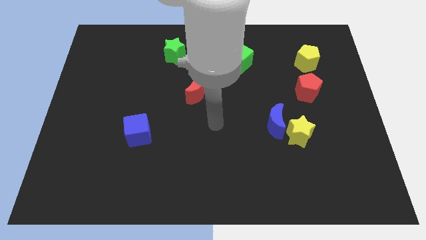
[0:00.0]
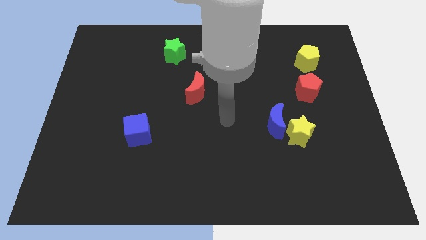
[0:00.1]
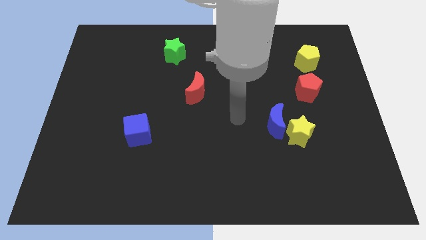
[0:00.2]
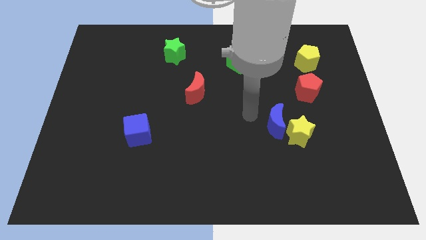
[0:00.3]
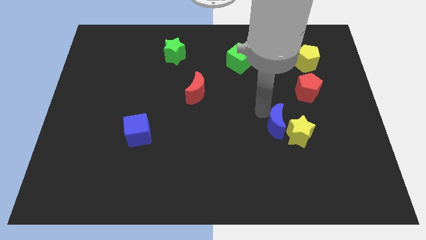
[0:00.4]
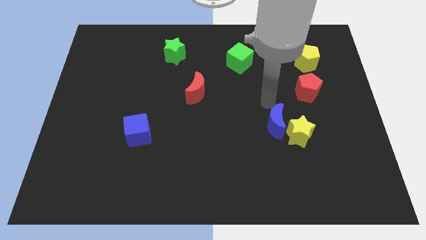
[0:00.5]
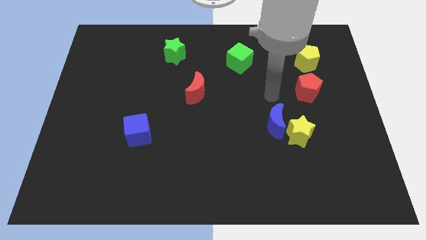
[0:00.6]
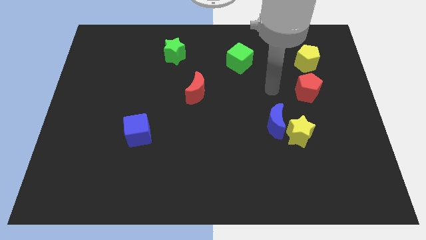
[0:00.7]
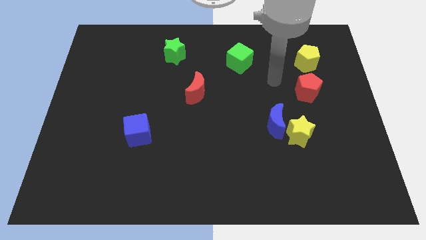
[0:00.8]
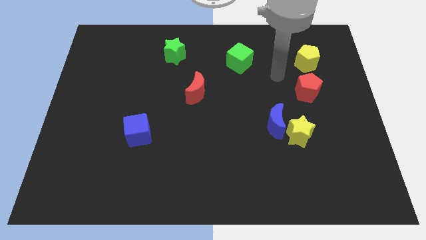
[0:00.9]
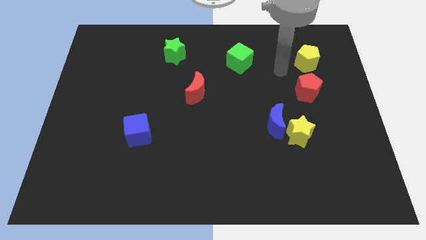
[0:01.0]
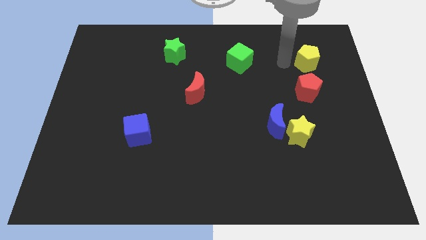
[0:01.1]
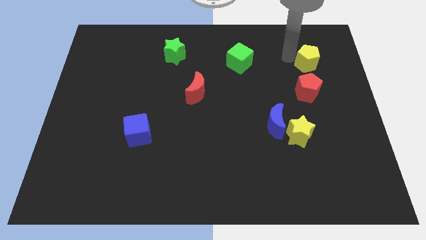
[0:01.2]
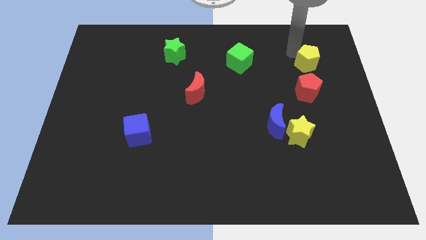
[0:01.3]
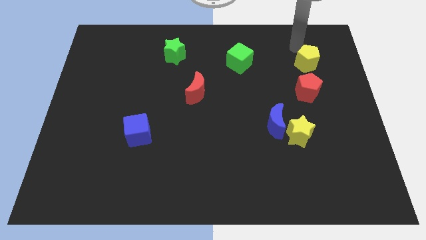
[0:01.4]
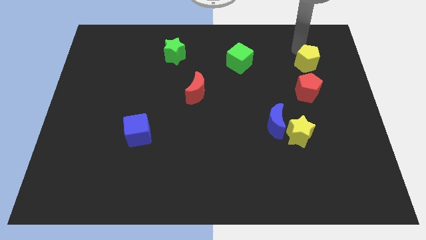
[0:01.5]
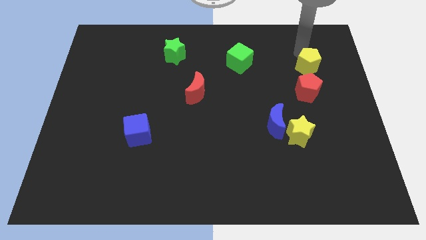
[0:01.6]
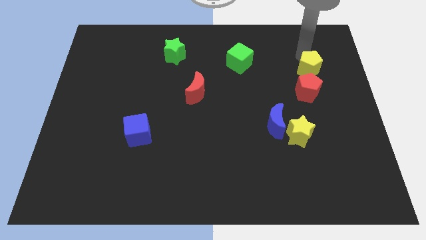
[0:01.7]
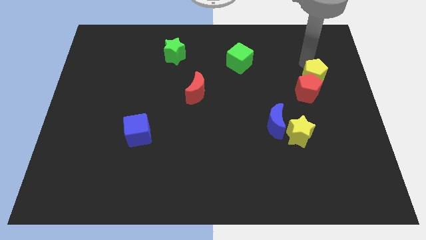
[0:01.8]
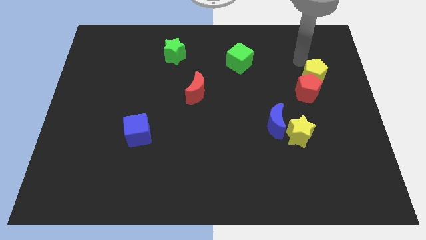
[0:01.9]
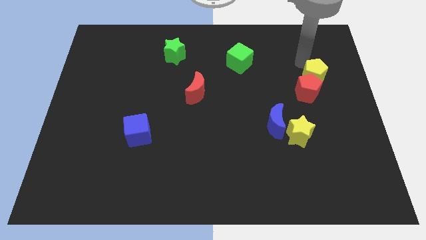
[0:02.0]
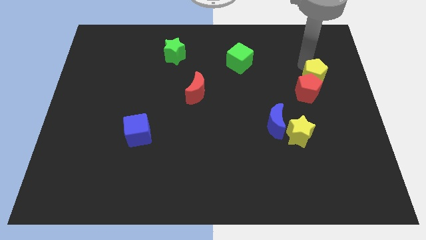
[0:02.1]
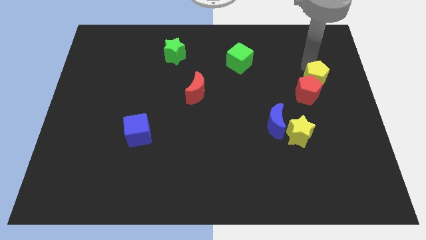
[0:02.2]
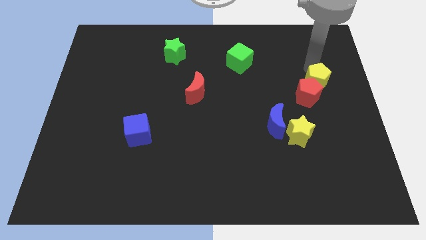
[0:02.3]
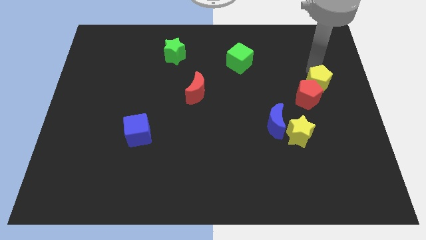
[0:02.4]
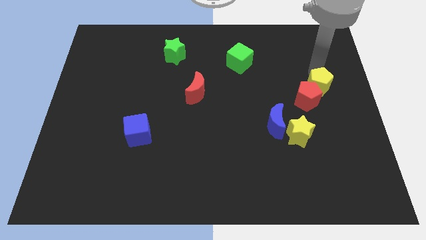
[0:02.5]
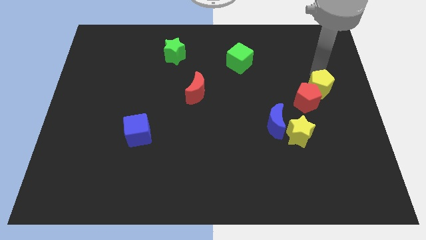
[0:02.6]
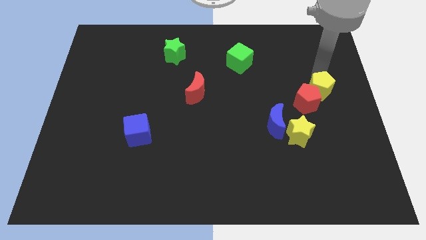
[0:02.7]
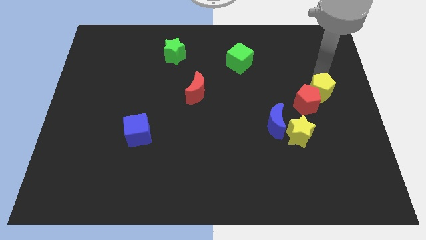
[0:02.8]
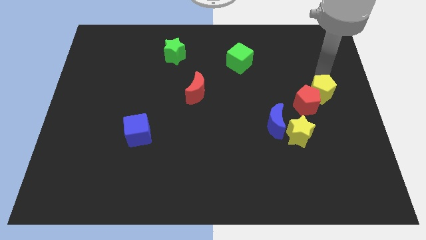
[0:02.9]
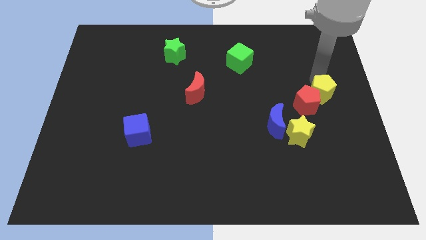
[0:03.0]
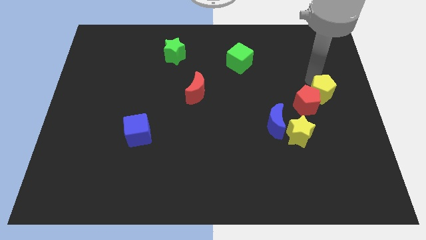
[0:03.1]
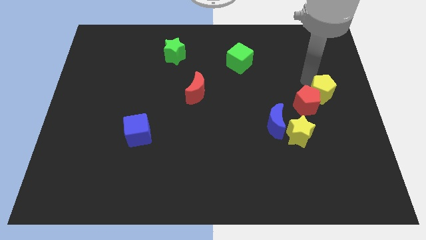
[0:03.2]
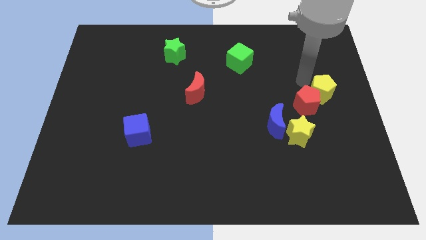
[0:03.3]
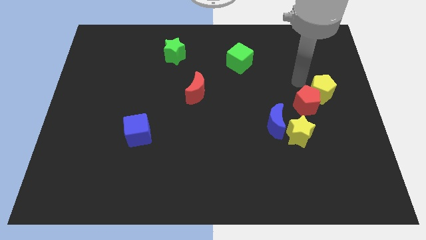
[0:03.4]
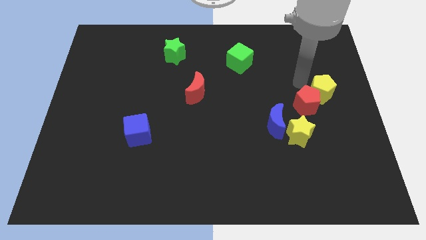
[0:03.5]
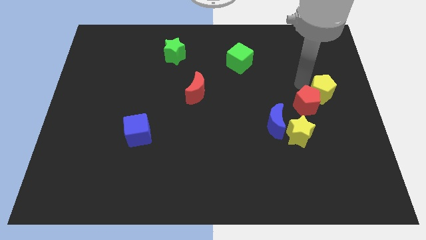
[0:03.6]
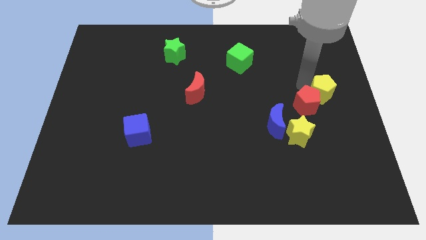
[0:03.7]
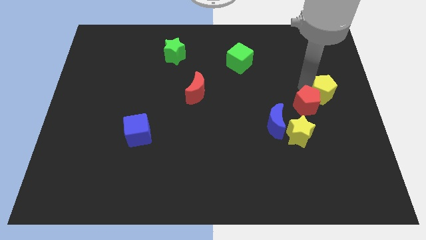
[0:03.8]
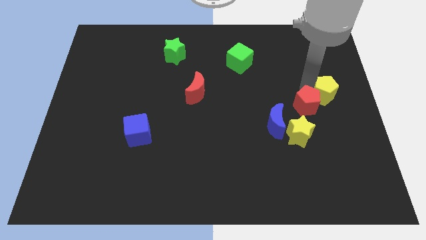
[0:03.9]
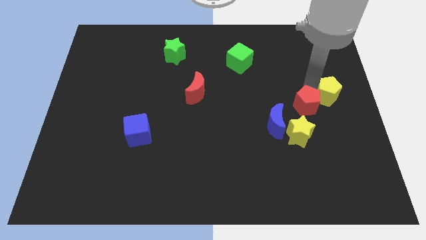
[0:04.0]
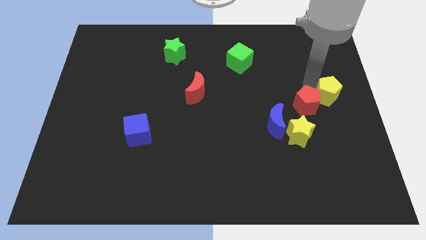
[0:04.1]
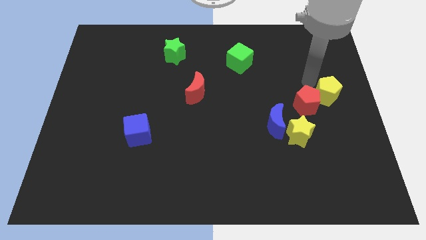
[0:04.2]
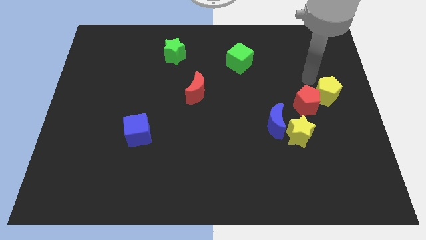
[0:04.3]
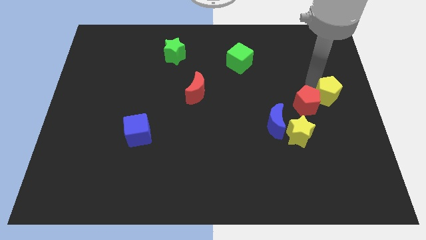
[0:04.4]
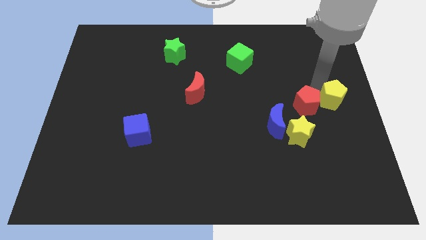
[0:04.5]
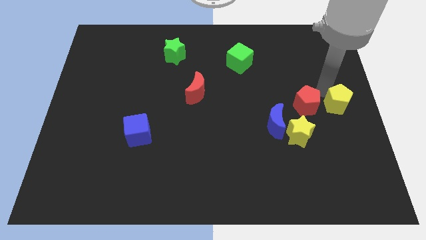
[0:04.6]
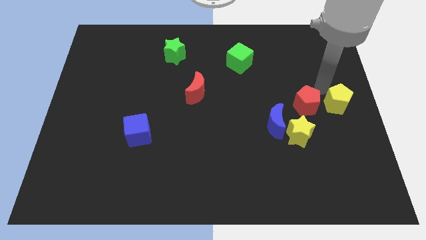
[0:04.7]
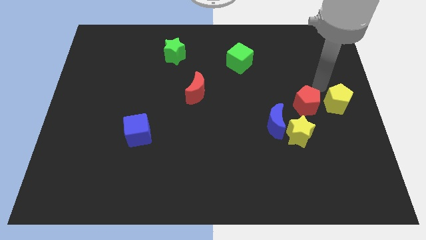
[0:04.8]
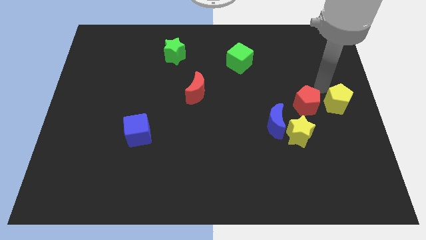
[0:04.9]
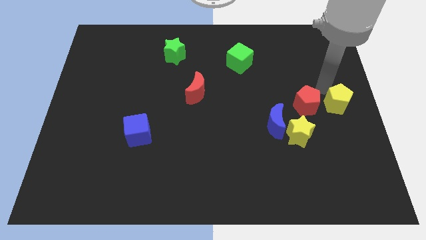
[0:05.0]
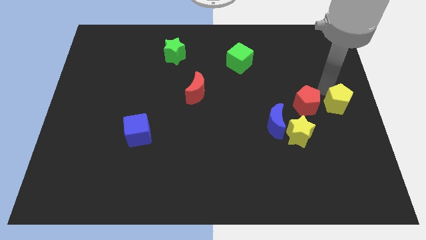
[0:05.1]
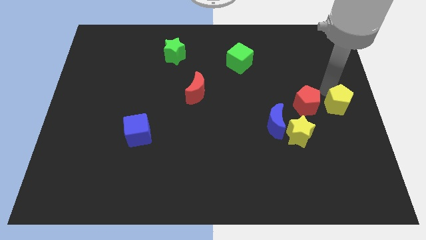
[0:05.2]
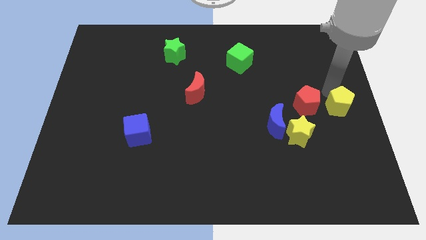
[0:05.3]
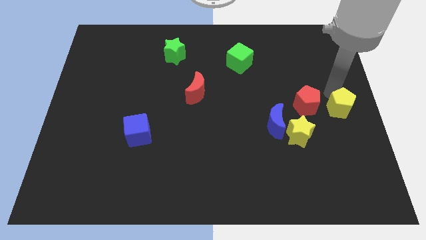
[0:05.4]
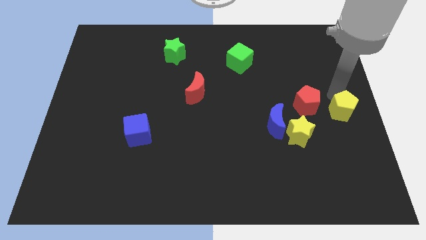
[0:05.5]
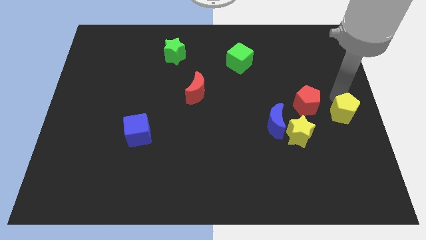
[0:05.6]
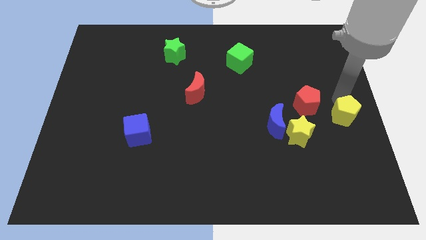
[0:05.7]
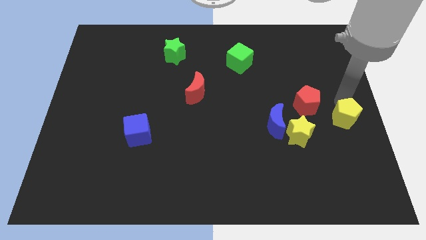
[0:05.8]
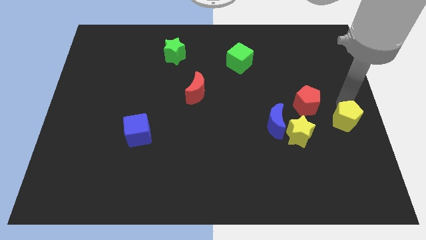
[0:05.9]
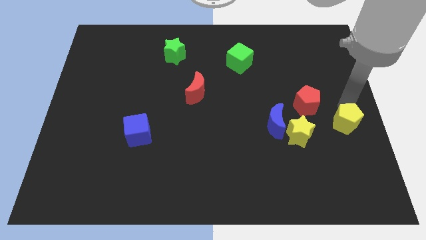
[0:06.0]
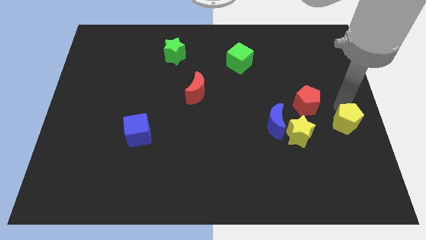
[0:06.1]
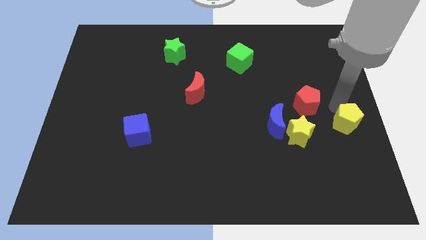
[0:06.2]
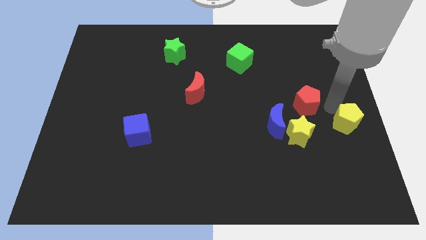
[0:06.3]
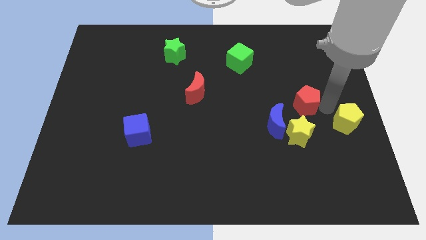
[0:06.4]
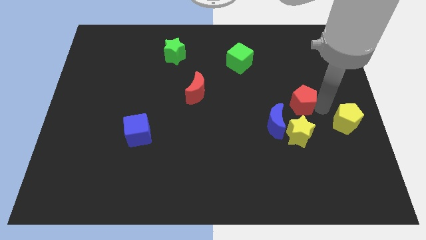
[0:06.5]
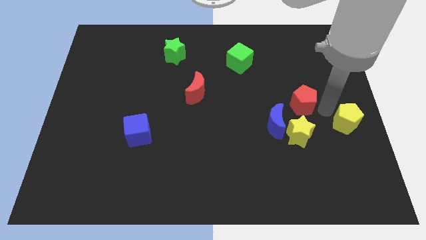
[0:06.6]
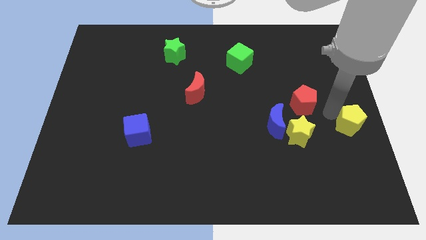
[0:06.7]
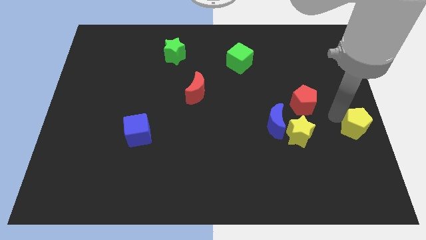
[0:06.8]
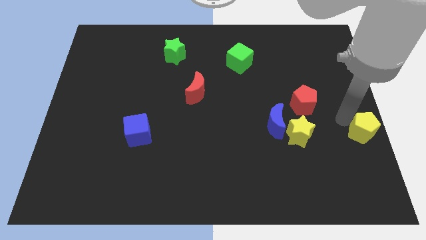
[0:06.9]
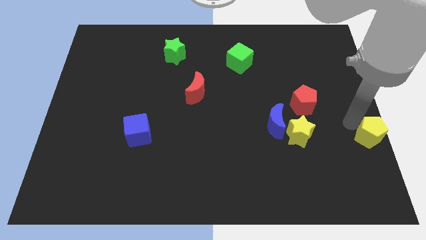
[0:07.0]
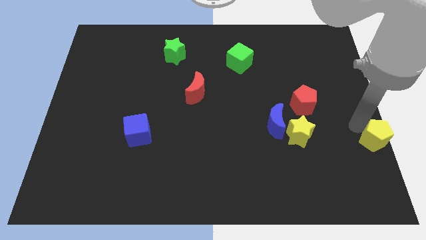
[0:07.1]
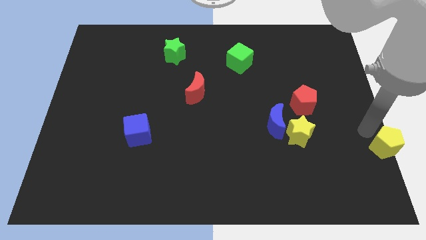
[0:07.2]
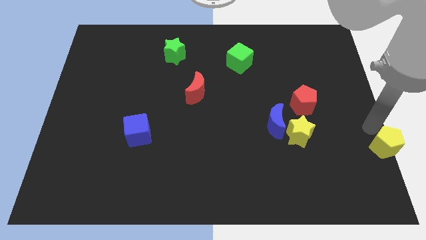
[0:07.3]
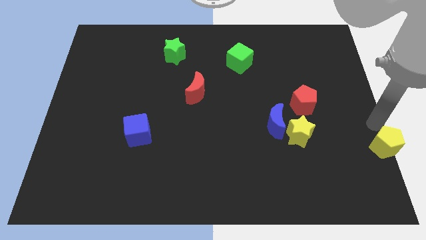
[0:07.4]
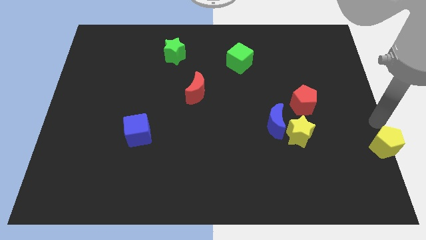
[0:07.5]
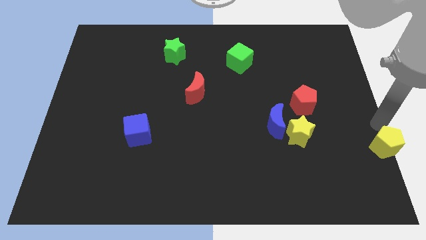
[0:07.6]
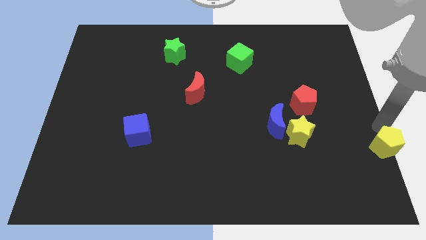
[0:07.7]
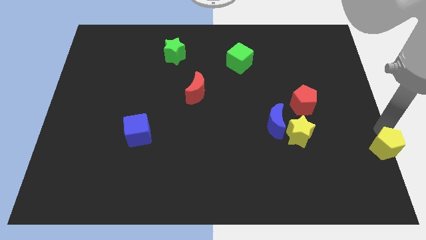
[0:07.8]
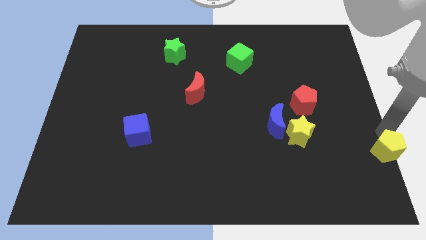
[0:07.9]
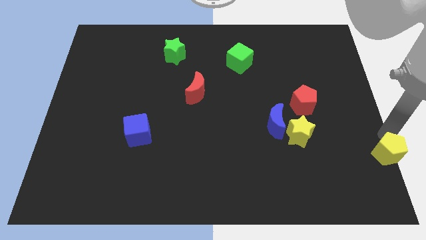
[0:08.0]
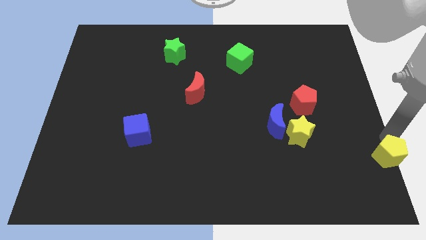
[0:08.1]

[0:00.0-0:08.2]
move the yellow pentagon to the lower right corner
